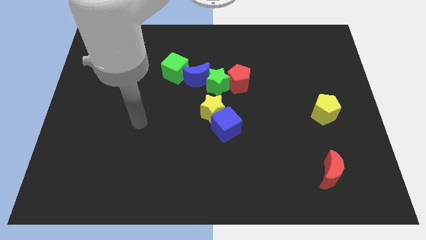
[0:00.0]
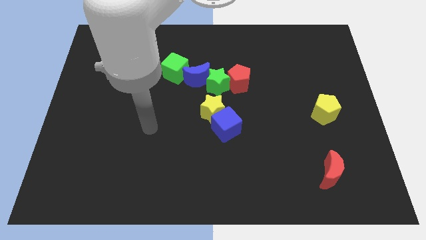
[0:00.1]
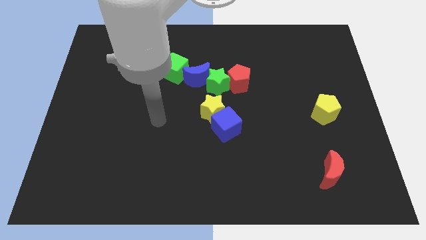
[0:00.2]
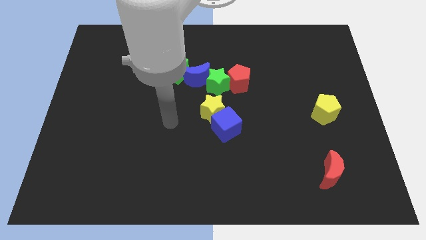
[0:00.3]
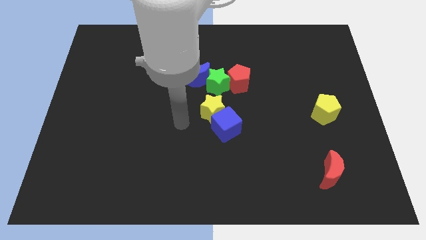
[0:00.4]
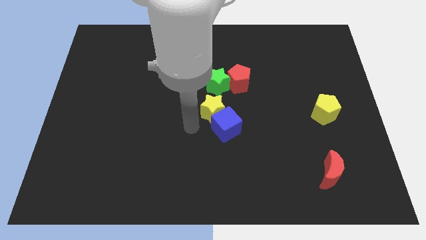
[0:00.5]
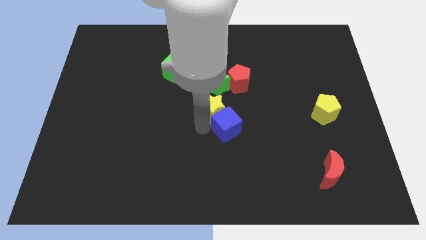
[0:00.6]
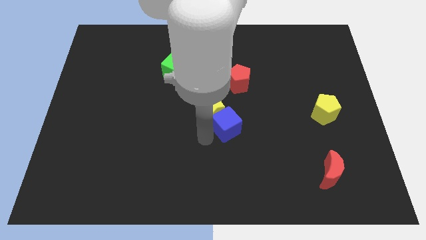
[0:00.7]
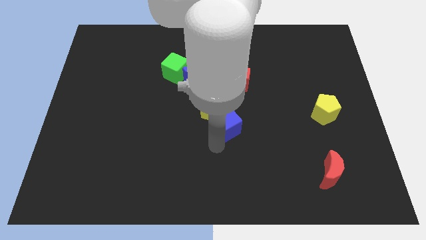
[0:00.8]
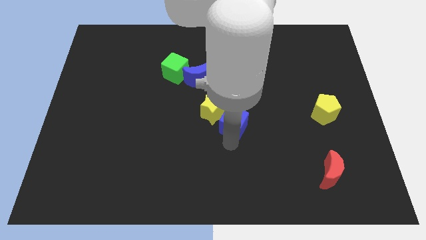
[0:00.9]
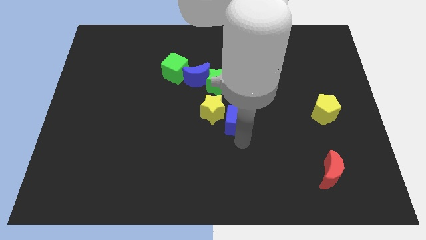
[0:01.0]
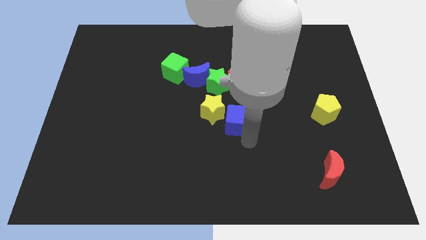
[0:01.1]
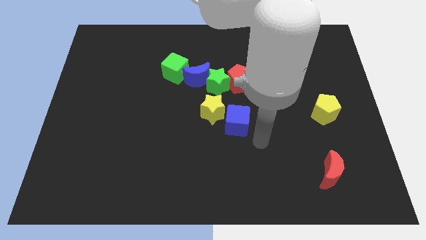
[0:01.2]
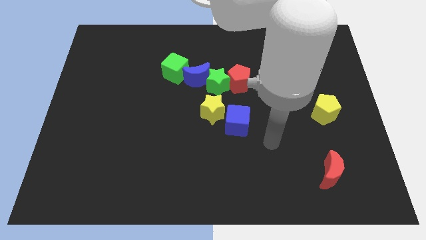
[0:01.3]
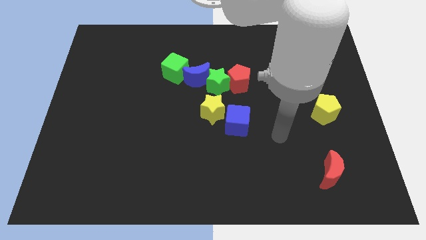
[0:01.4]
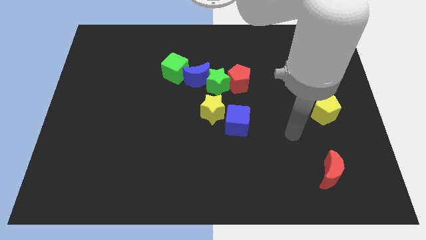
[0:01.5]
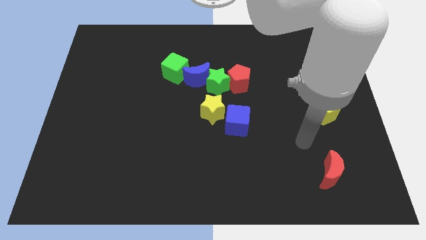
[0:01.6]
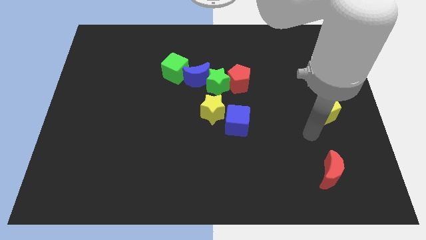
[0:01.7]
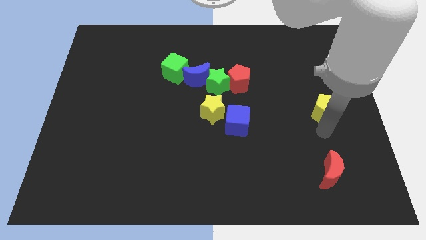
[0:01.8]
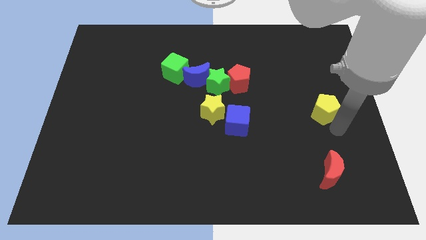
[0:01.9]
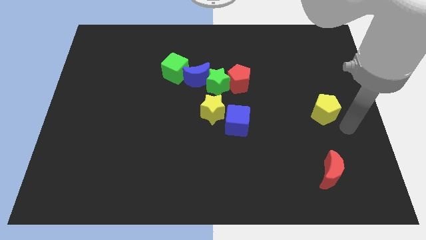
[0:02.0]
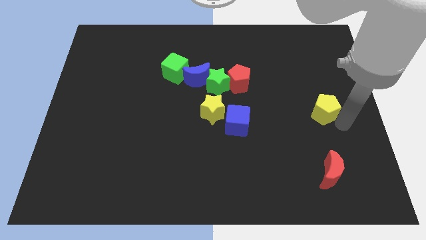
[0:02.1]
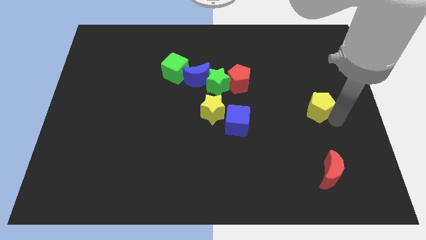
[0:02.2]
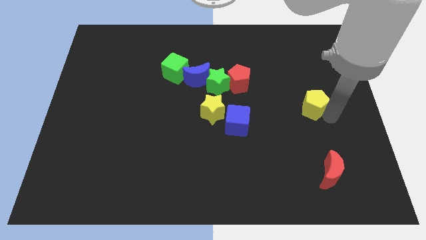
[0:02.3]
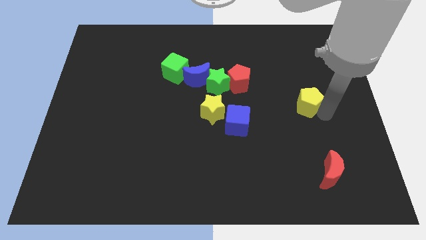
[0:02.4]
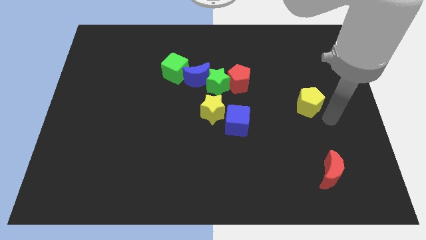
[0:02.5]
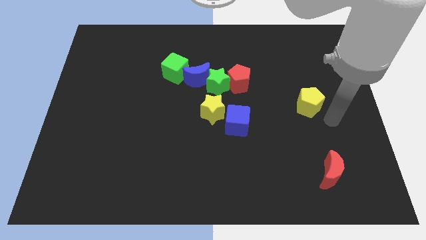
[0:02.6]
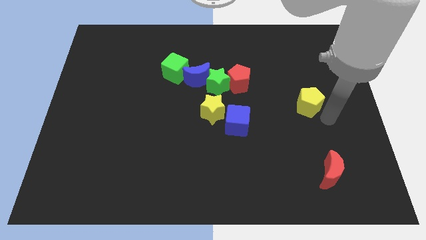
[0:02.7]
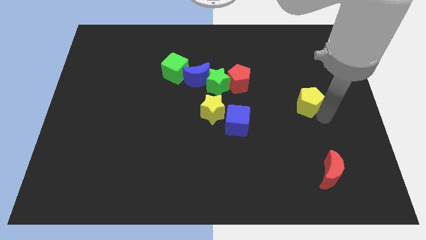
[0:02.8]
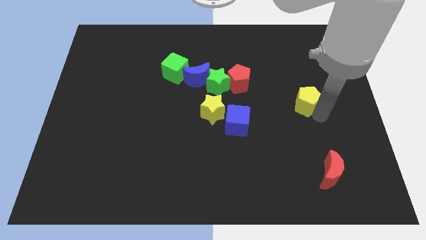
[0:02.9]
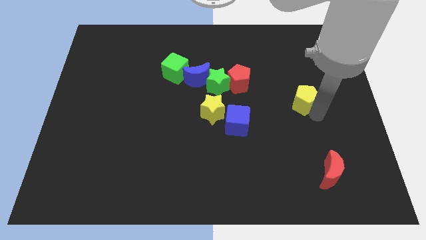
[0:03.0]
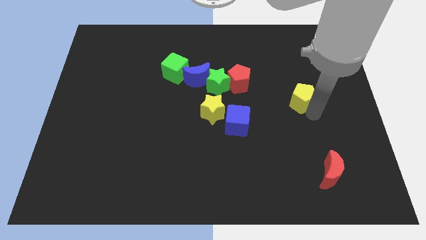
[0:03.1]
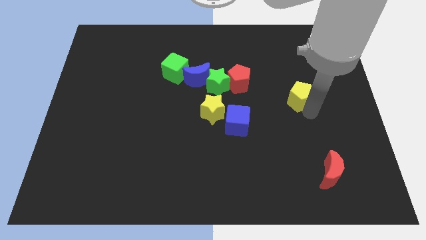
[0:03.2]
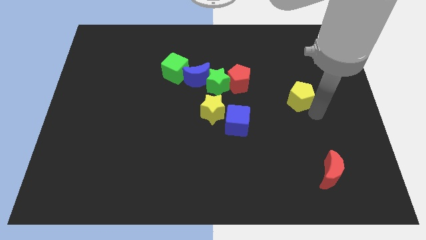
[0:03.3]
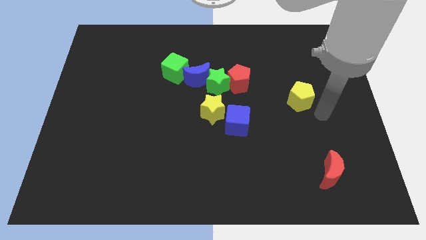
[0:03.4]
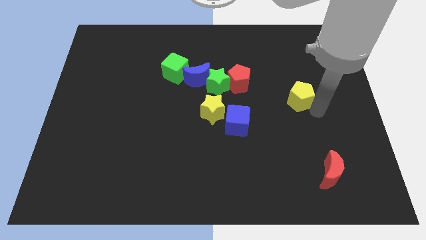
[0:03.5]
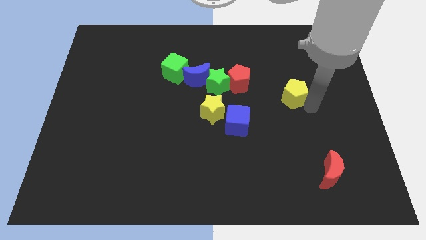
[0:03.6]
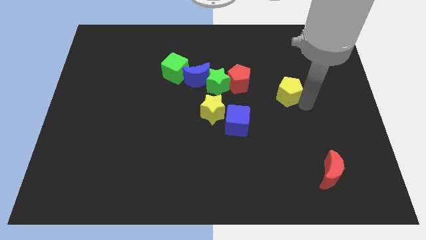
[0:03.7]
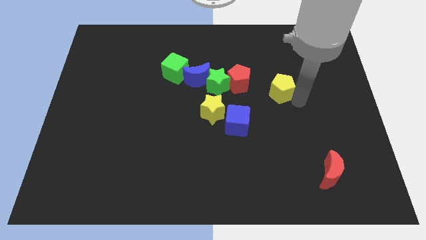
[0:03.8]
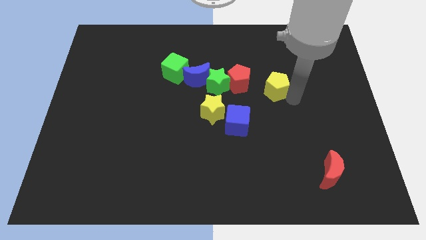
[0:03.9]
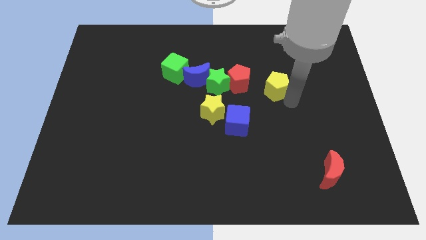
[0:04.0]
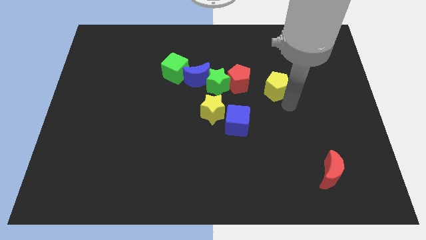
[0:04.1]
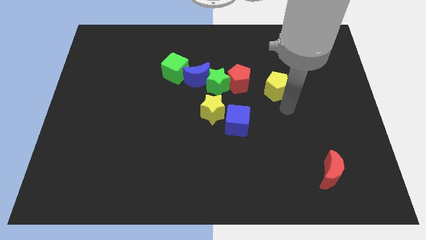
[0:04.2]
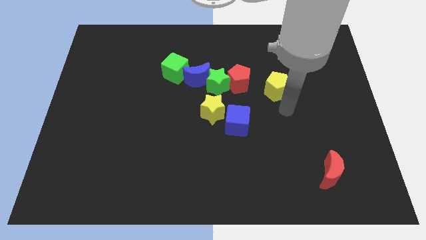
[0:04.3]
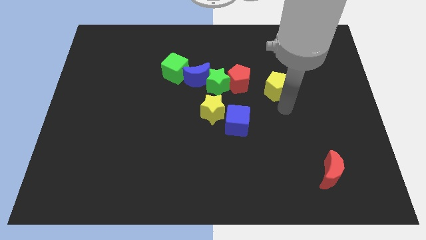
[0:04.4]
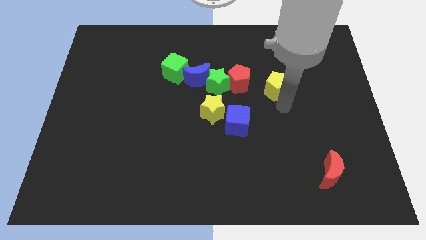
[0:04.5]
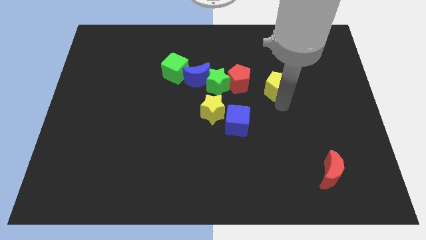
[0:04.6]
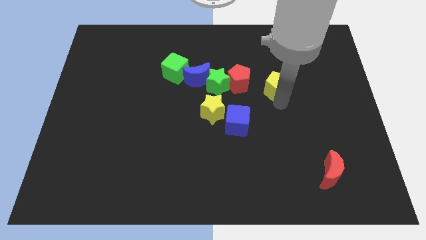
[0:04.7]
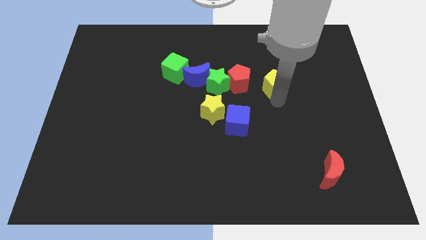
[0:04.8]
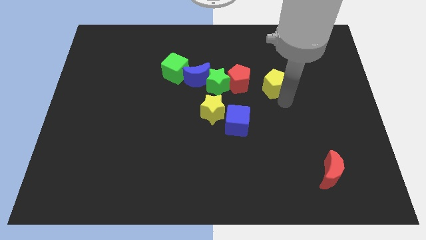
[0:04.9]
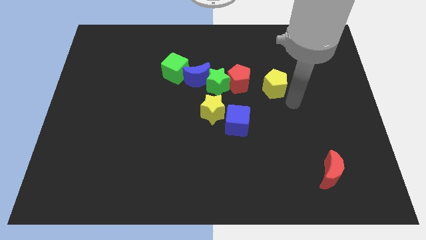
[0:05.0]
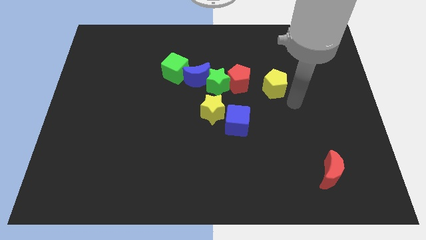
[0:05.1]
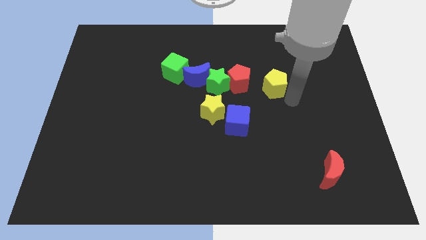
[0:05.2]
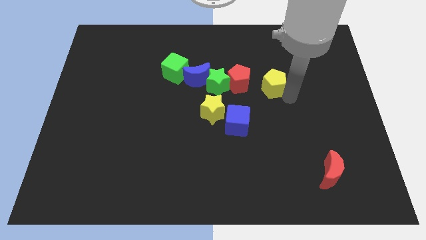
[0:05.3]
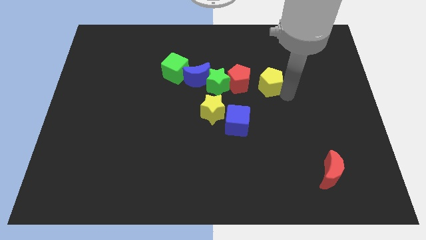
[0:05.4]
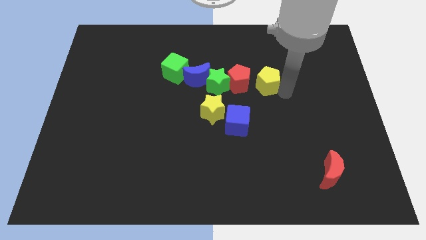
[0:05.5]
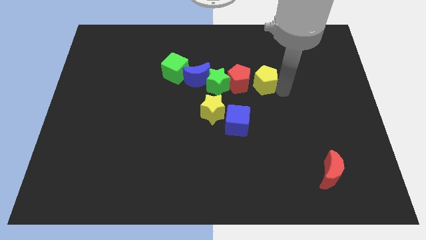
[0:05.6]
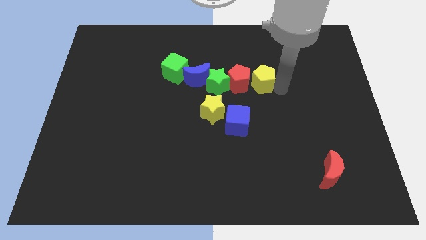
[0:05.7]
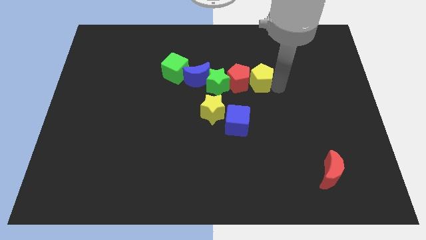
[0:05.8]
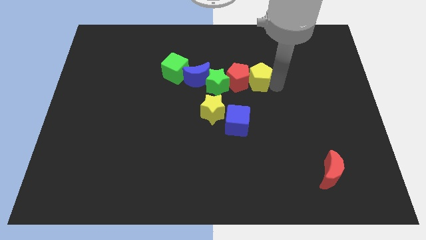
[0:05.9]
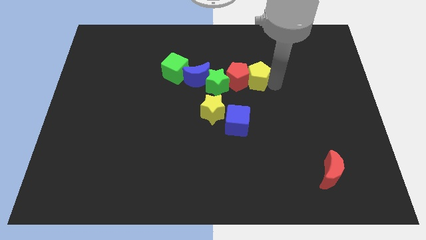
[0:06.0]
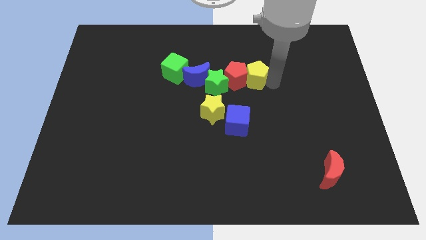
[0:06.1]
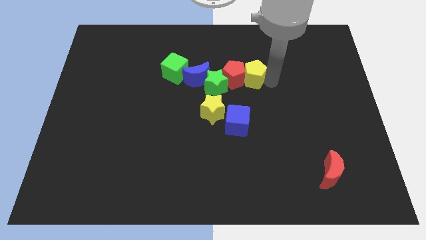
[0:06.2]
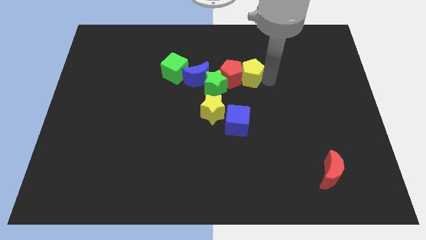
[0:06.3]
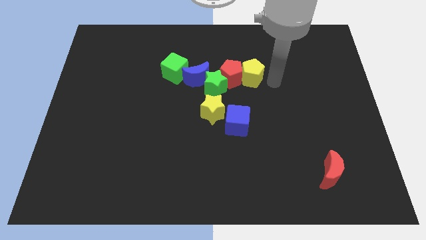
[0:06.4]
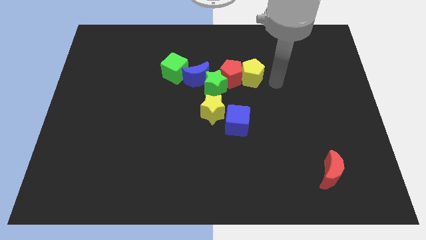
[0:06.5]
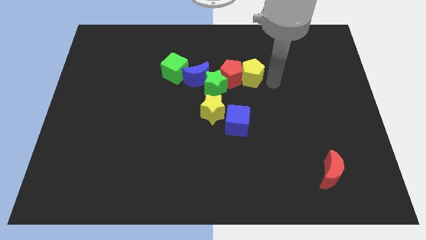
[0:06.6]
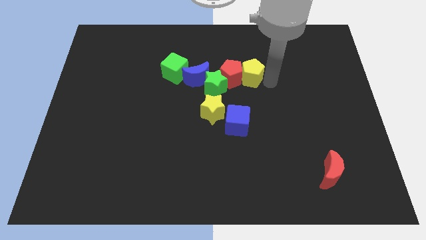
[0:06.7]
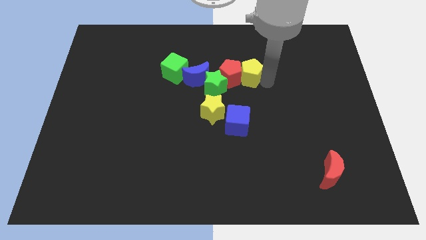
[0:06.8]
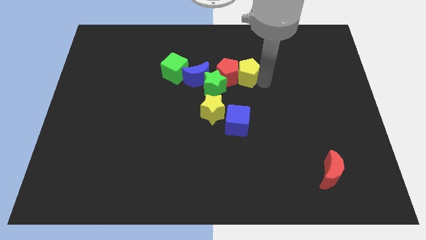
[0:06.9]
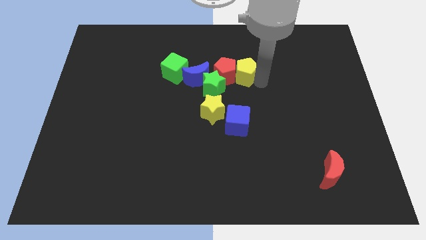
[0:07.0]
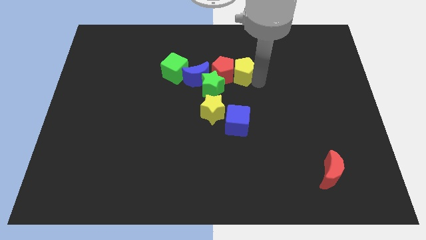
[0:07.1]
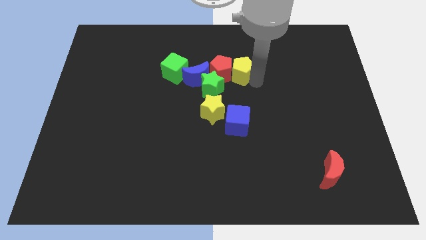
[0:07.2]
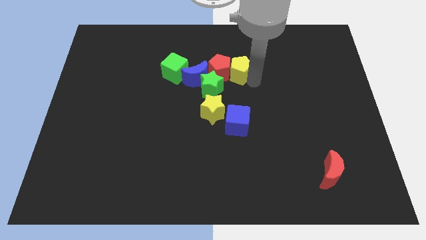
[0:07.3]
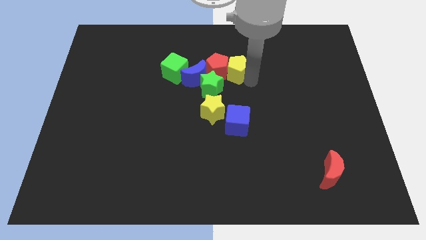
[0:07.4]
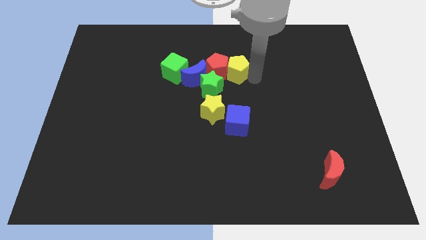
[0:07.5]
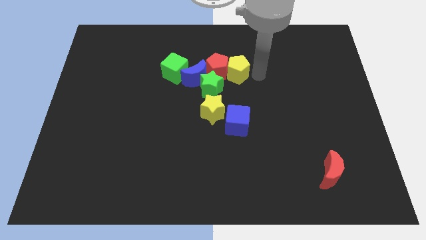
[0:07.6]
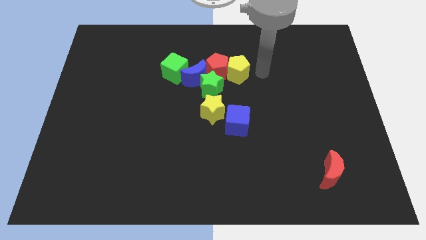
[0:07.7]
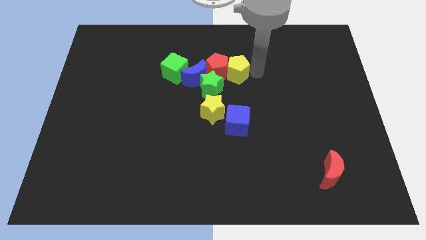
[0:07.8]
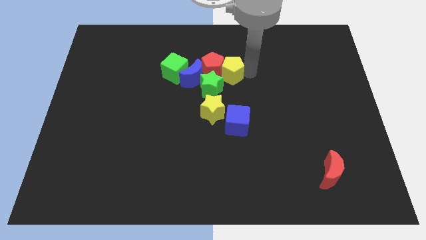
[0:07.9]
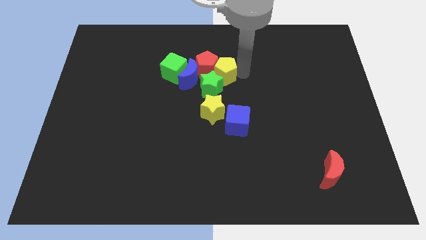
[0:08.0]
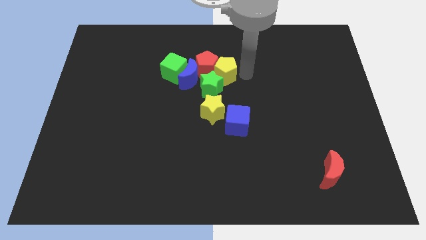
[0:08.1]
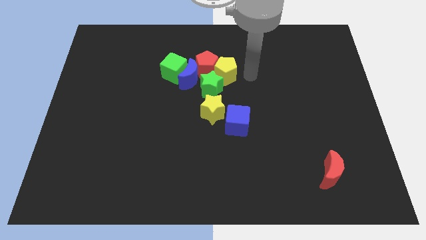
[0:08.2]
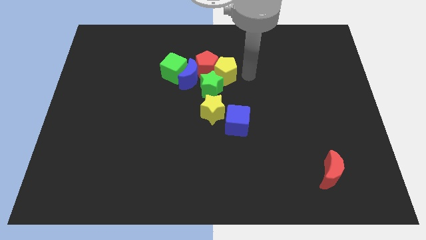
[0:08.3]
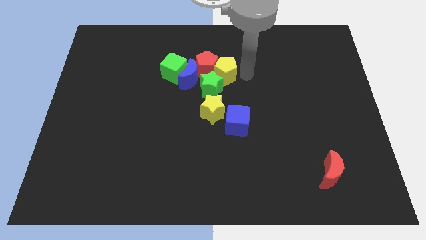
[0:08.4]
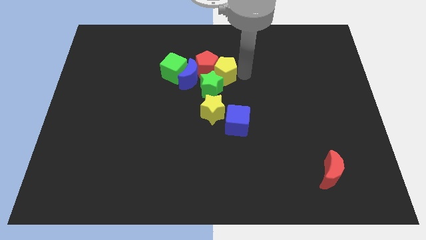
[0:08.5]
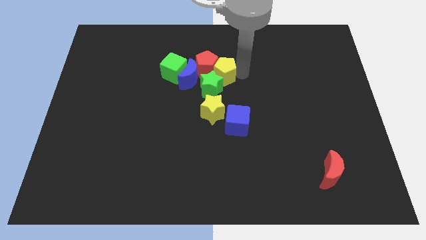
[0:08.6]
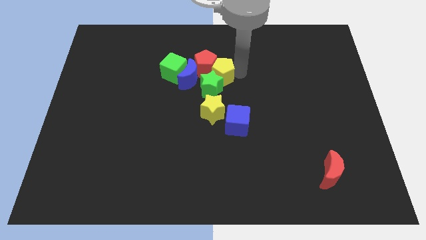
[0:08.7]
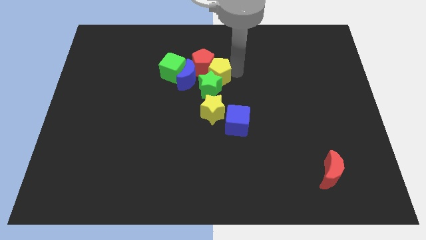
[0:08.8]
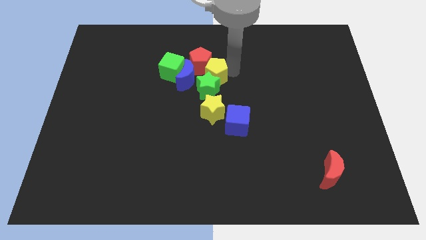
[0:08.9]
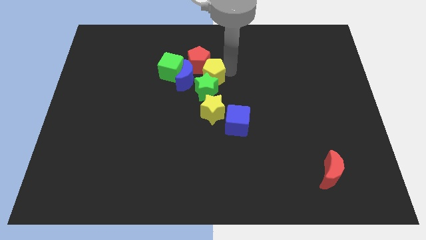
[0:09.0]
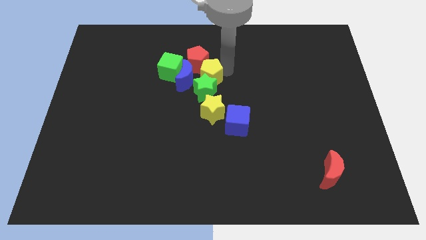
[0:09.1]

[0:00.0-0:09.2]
put the yellow pentagon to the blue moon
